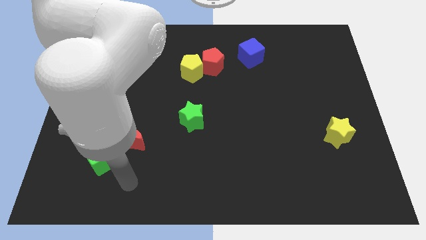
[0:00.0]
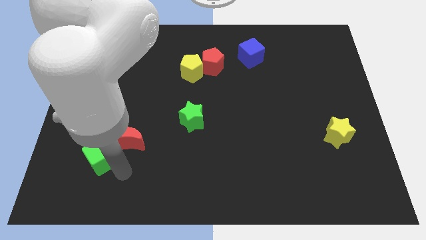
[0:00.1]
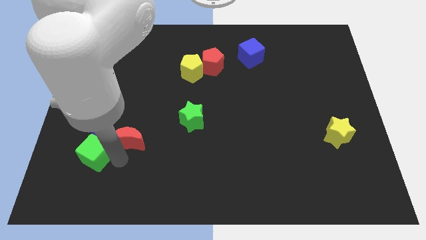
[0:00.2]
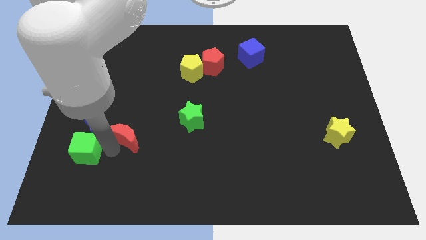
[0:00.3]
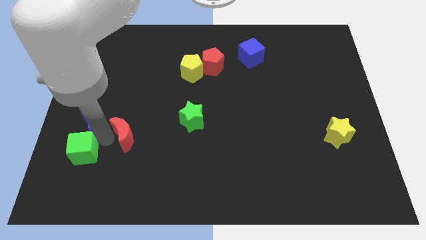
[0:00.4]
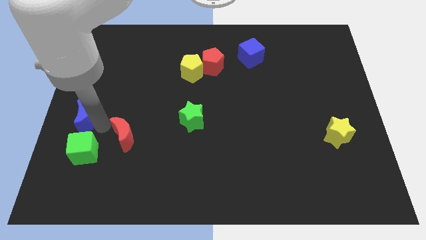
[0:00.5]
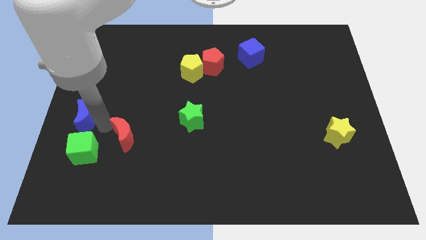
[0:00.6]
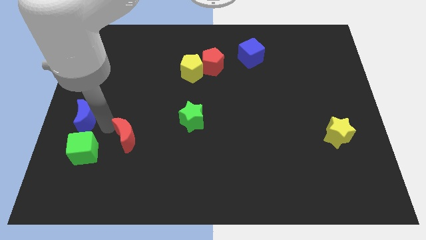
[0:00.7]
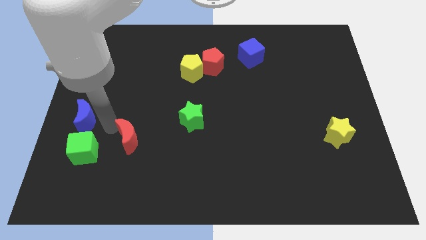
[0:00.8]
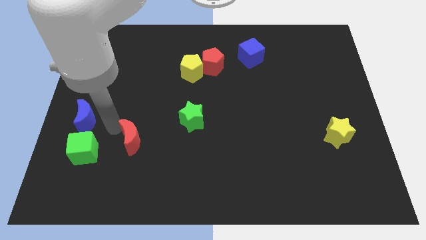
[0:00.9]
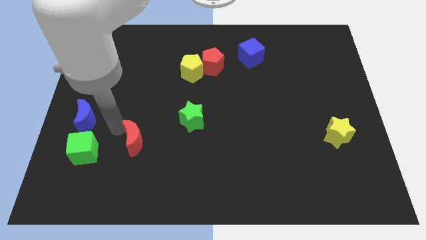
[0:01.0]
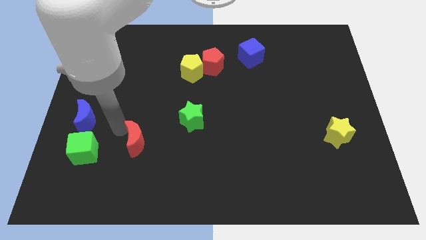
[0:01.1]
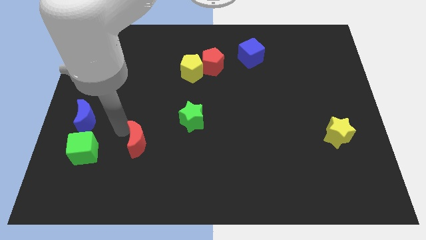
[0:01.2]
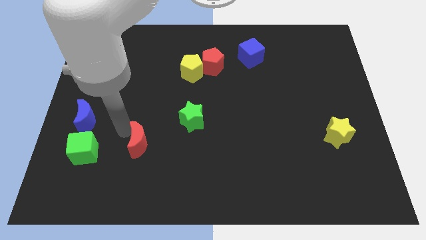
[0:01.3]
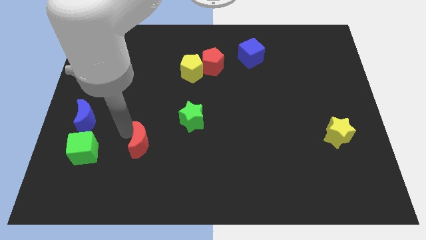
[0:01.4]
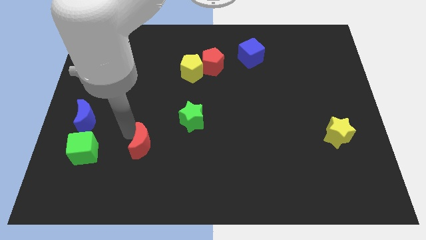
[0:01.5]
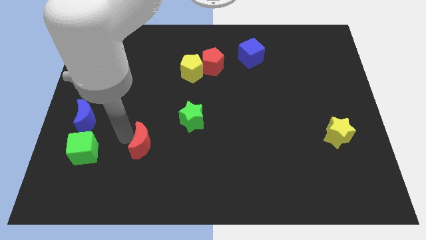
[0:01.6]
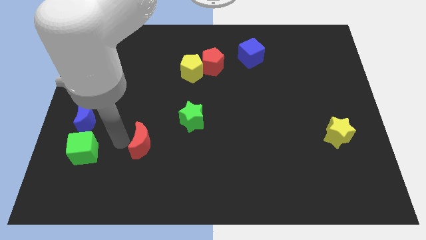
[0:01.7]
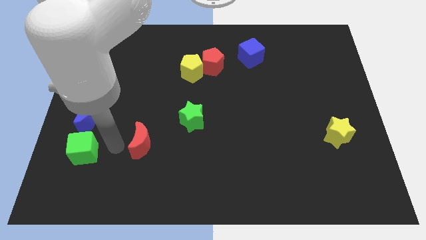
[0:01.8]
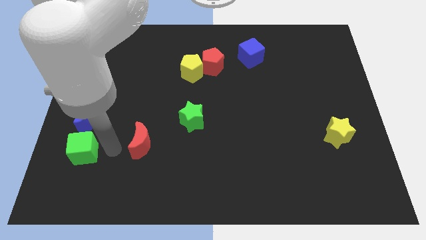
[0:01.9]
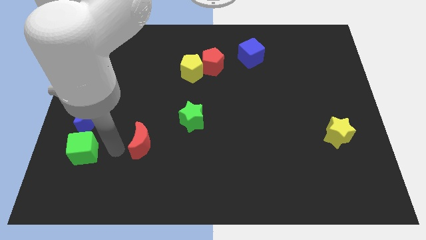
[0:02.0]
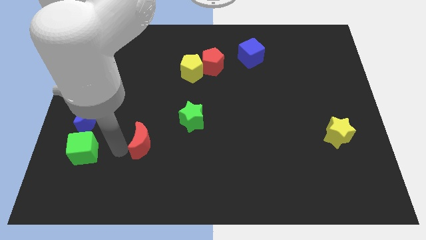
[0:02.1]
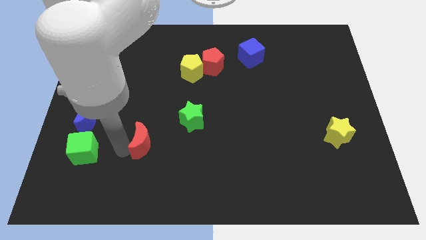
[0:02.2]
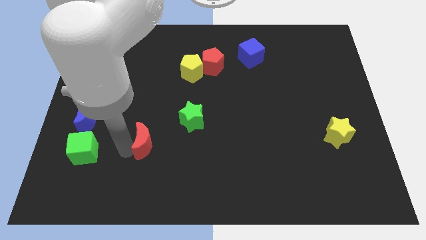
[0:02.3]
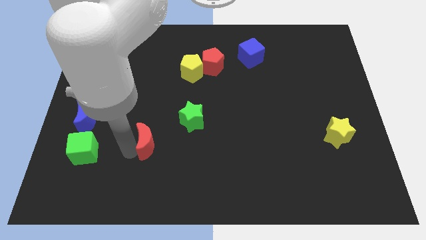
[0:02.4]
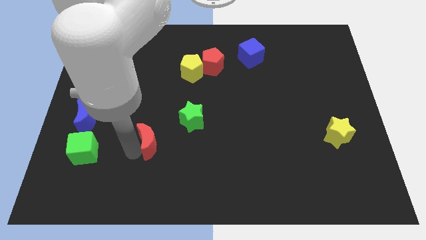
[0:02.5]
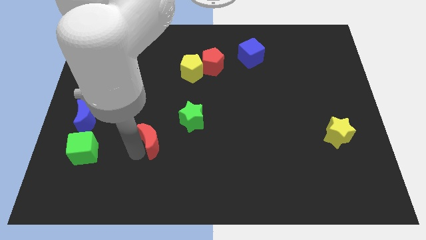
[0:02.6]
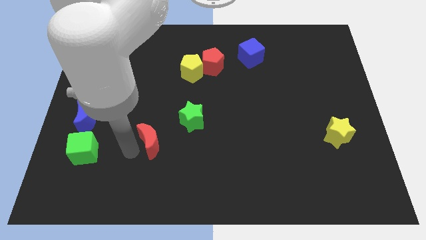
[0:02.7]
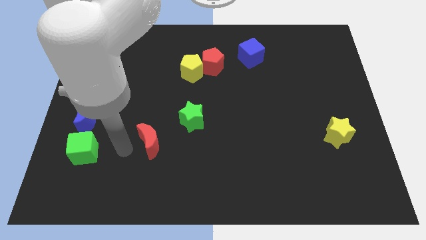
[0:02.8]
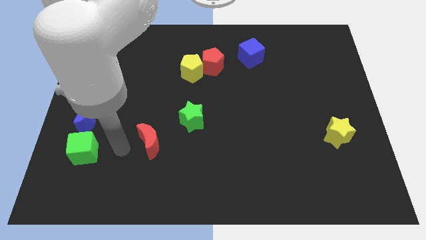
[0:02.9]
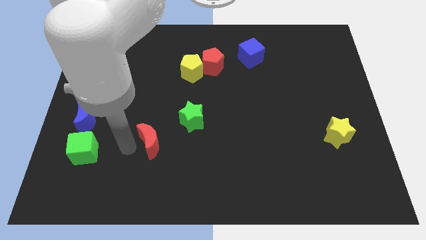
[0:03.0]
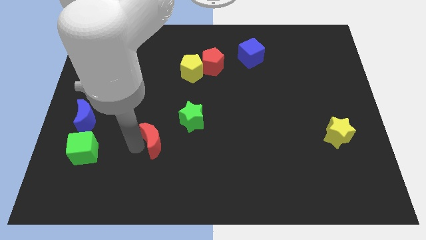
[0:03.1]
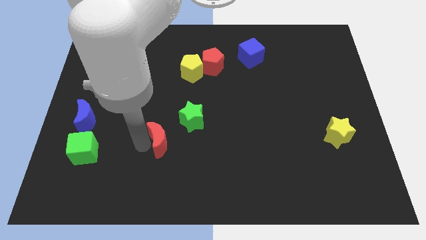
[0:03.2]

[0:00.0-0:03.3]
slide the red moon a little bit to the right

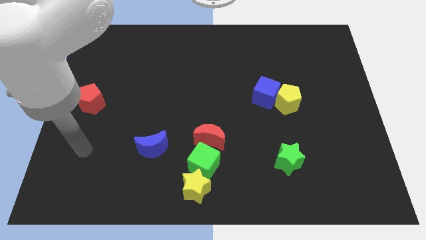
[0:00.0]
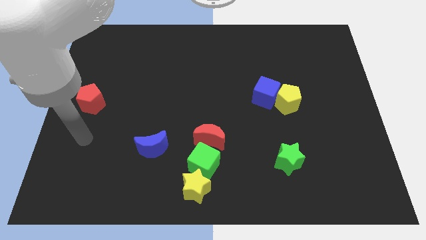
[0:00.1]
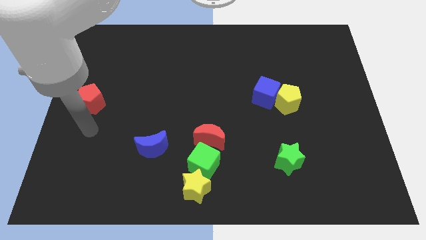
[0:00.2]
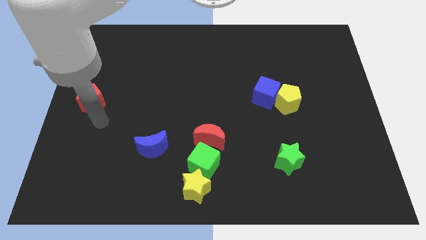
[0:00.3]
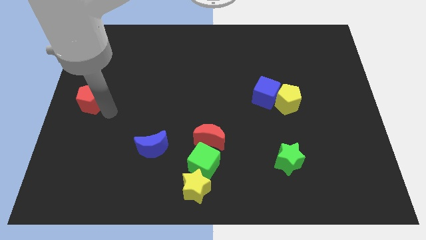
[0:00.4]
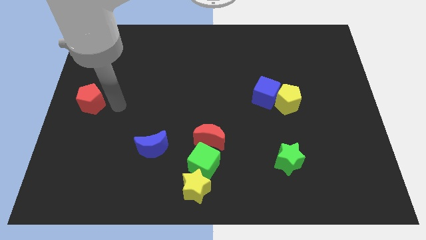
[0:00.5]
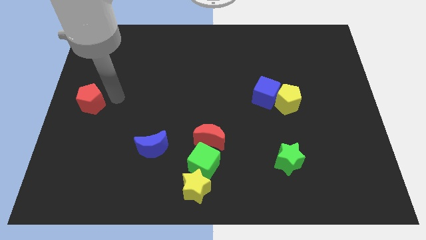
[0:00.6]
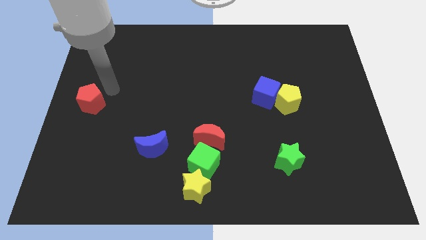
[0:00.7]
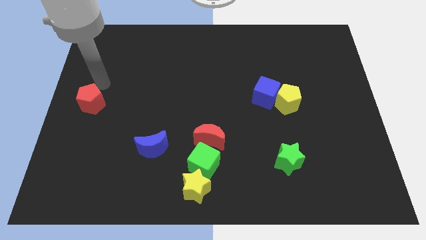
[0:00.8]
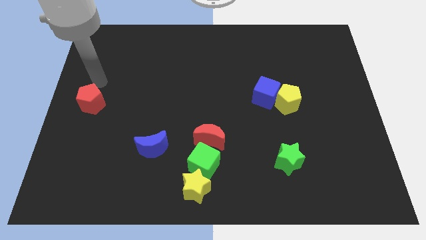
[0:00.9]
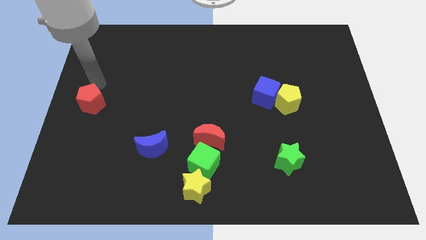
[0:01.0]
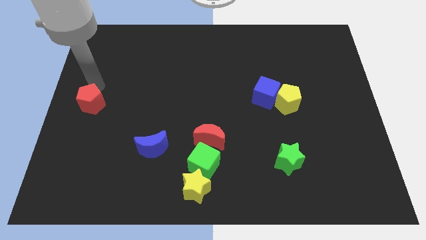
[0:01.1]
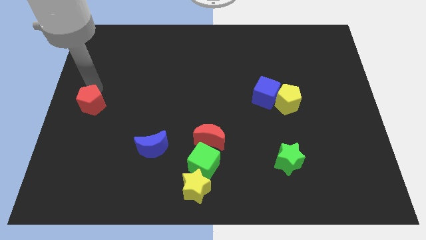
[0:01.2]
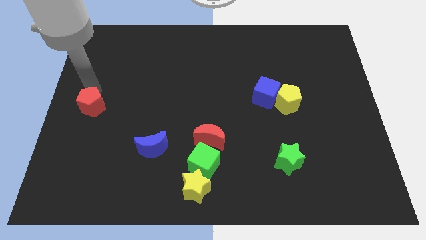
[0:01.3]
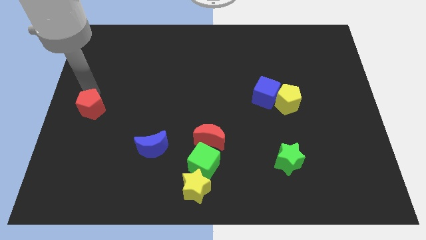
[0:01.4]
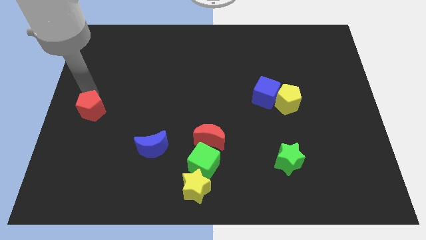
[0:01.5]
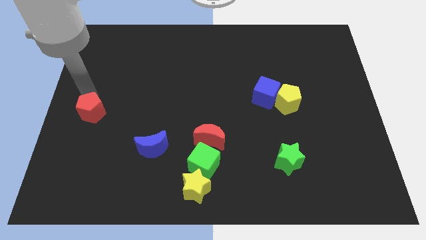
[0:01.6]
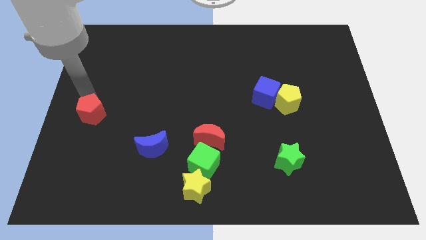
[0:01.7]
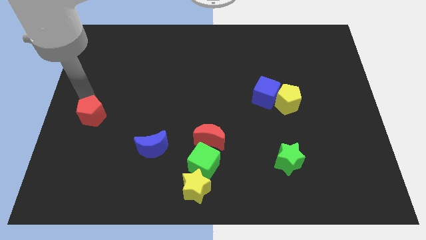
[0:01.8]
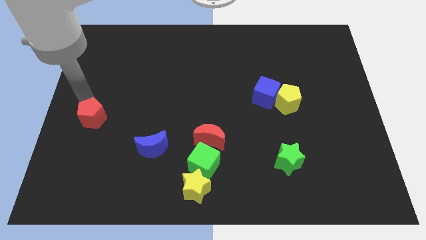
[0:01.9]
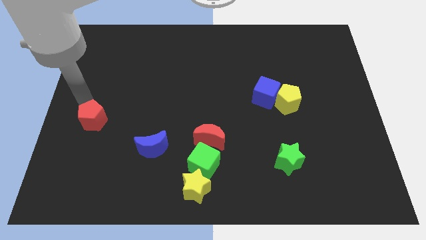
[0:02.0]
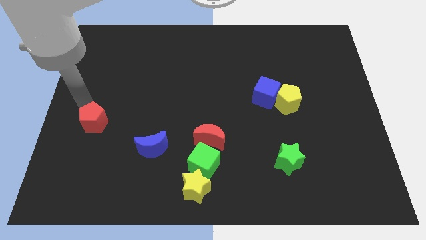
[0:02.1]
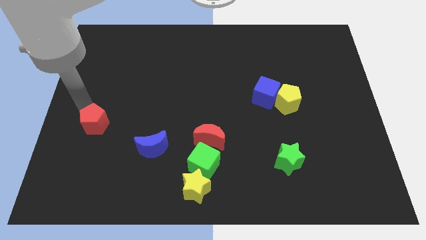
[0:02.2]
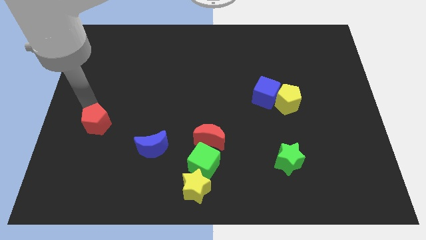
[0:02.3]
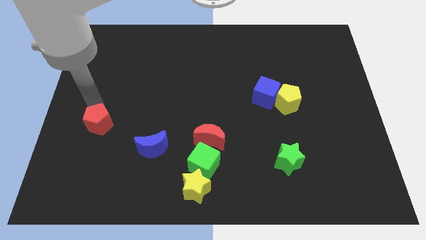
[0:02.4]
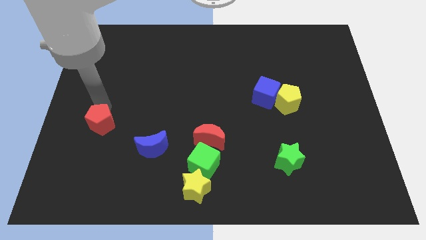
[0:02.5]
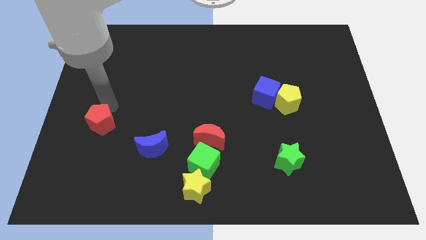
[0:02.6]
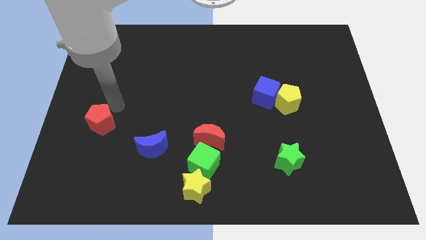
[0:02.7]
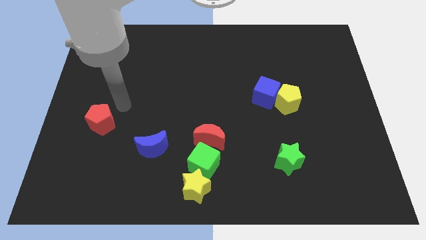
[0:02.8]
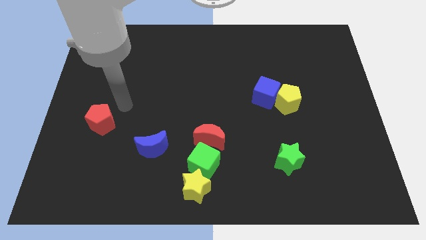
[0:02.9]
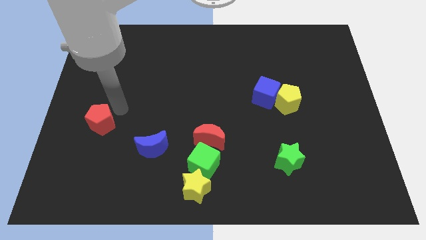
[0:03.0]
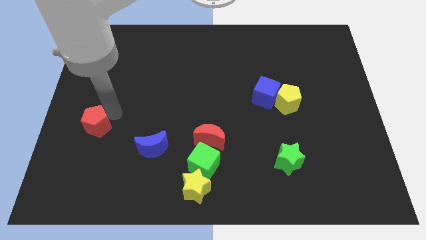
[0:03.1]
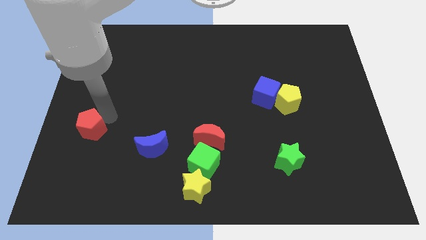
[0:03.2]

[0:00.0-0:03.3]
slide the red pentagon a bit downwards

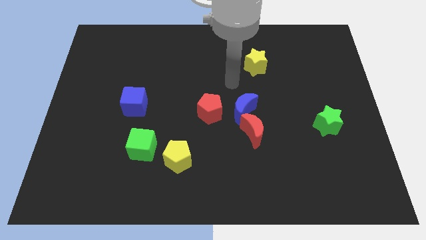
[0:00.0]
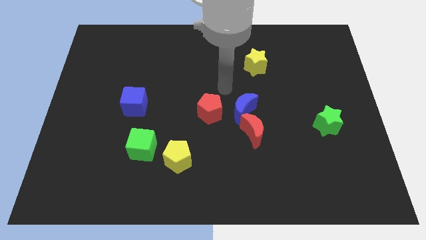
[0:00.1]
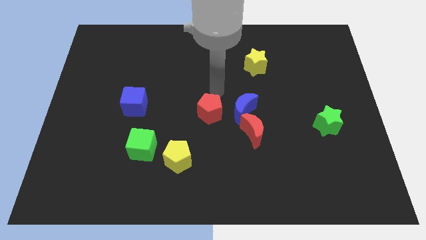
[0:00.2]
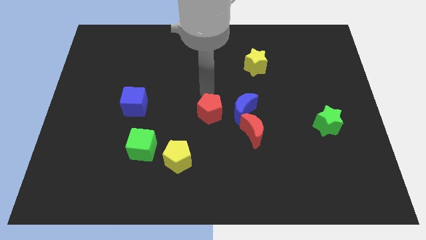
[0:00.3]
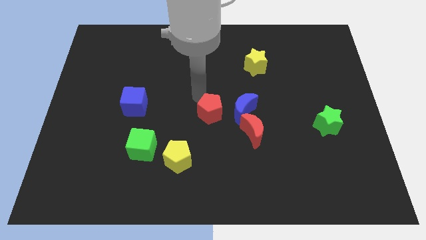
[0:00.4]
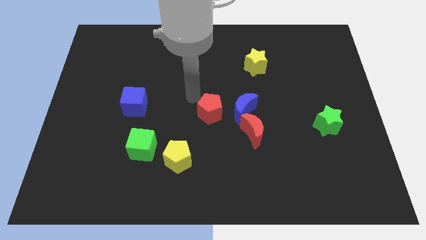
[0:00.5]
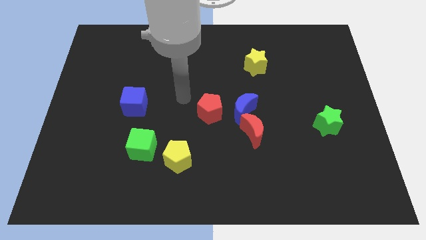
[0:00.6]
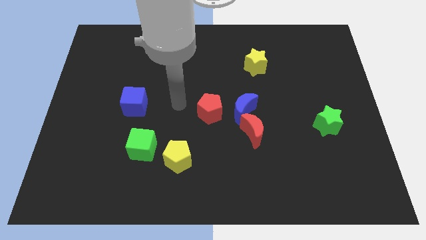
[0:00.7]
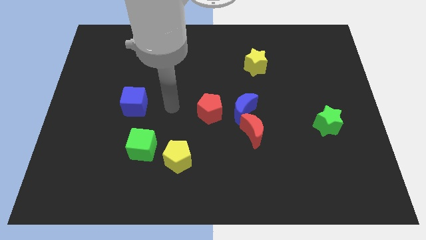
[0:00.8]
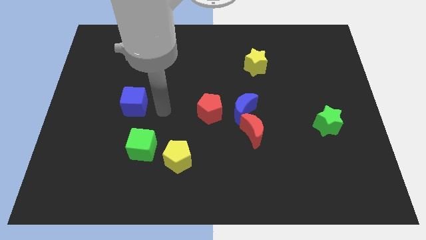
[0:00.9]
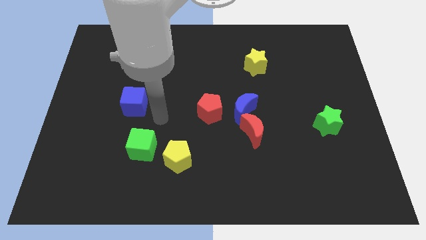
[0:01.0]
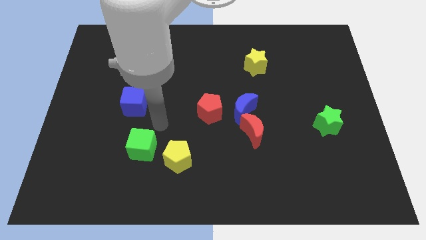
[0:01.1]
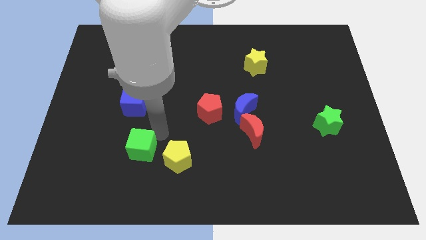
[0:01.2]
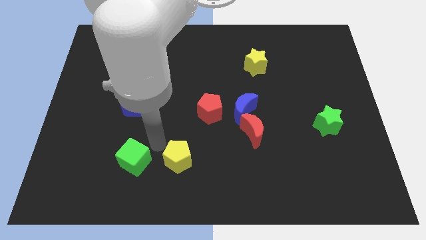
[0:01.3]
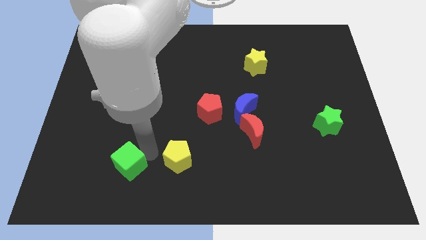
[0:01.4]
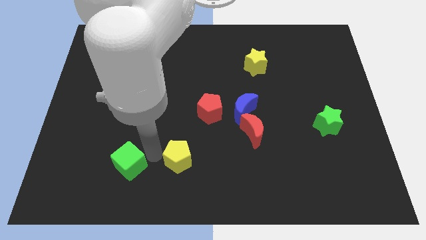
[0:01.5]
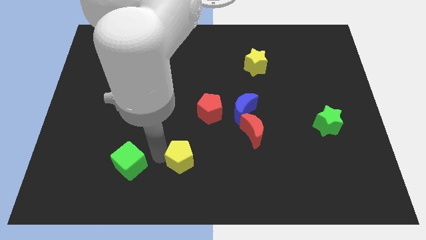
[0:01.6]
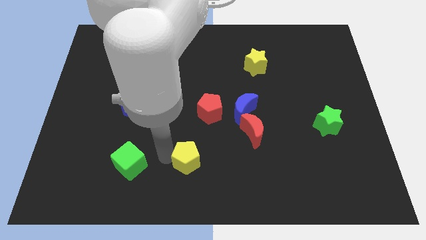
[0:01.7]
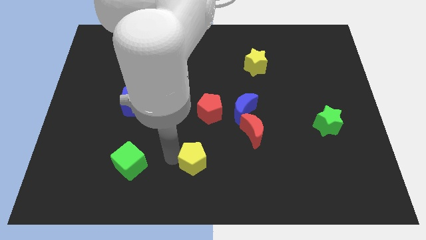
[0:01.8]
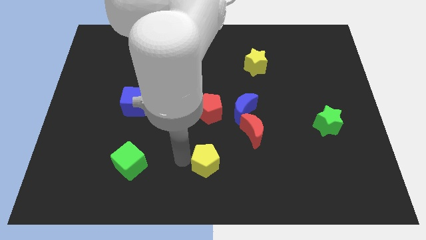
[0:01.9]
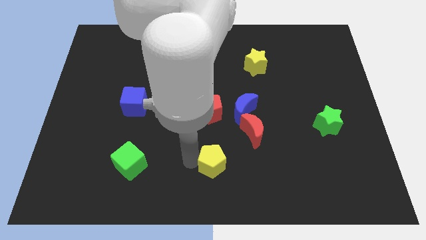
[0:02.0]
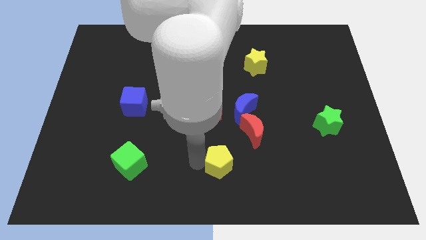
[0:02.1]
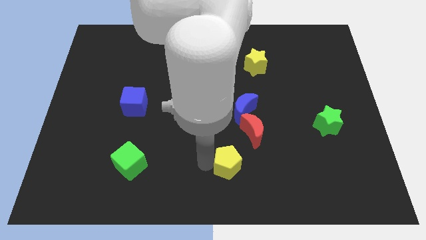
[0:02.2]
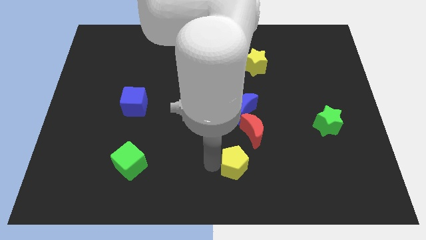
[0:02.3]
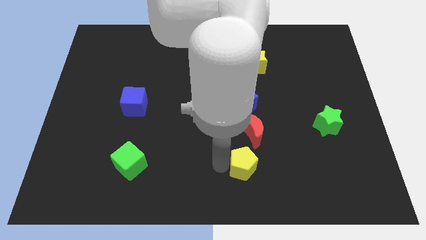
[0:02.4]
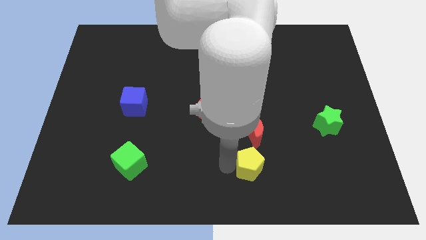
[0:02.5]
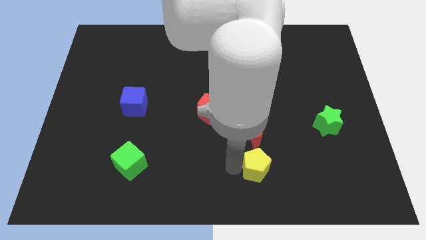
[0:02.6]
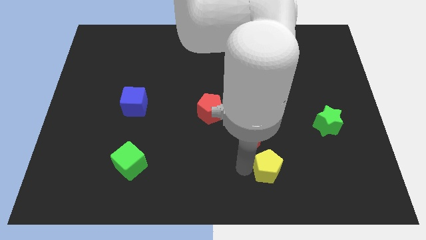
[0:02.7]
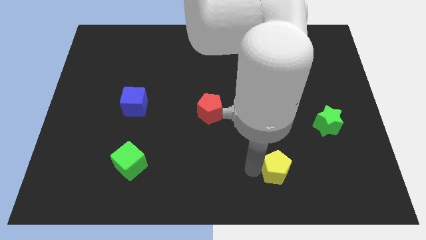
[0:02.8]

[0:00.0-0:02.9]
slide the yellow pentagon right
